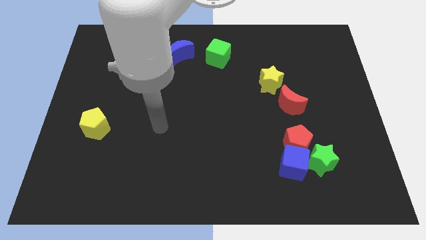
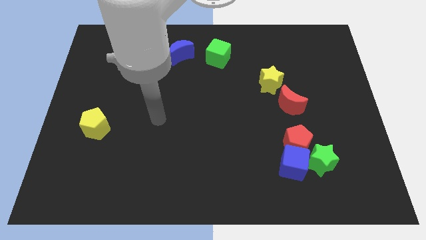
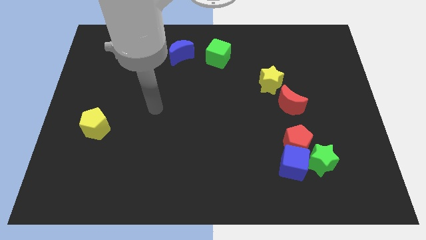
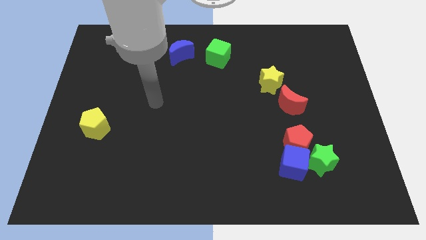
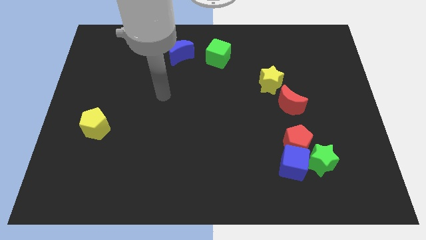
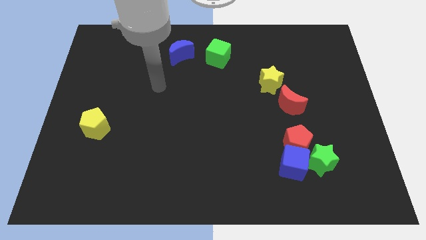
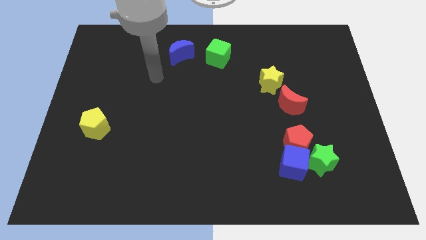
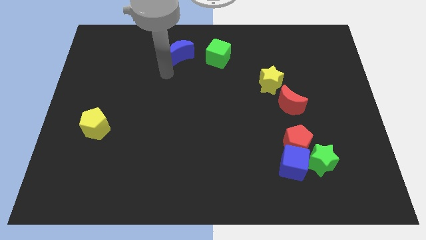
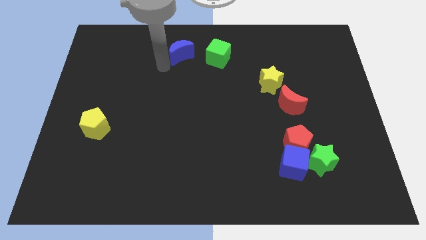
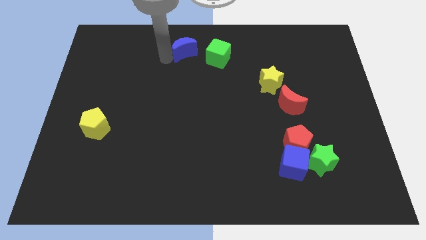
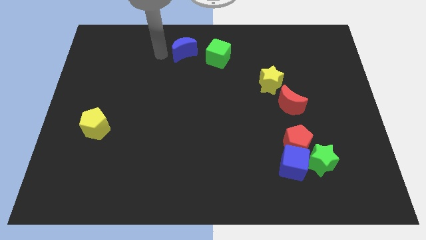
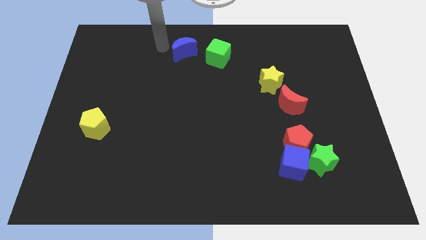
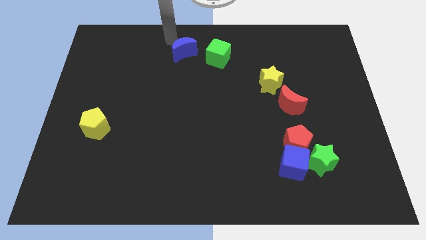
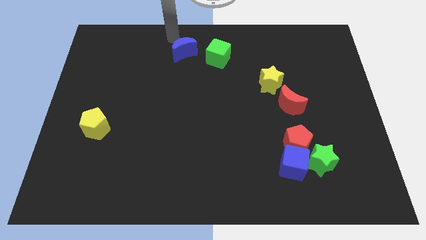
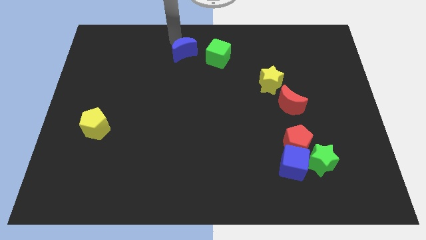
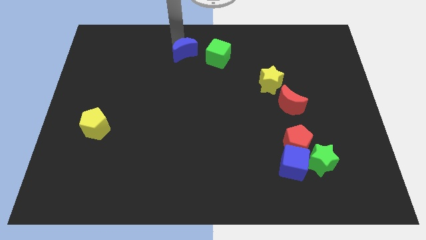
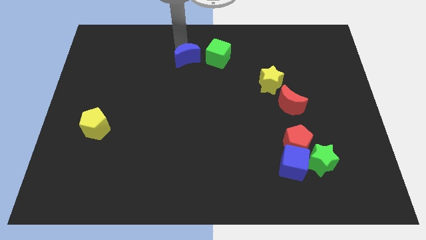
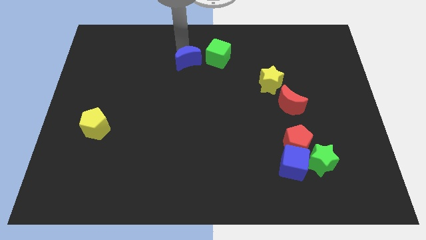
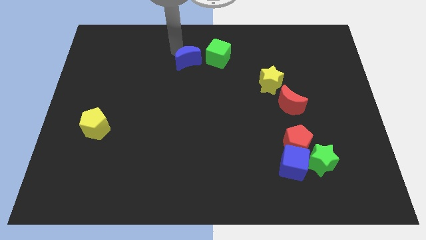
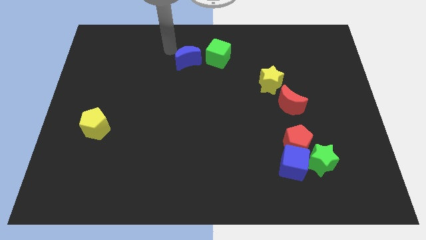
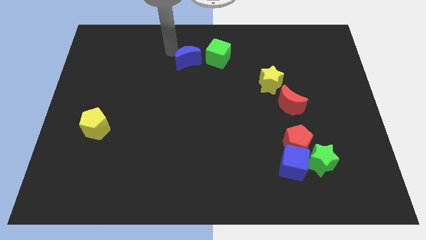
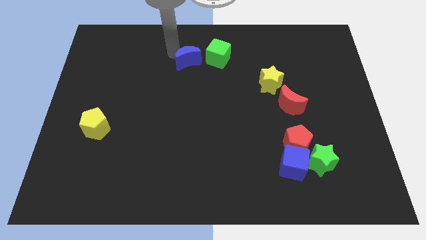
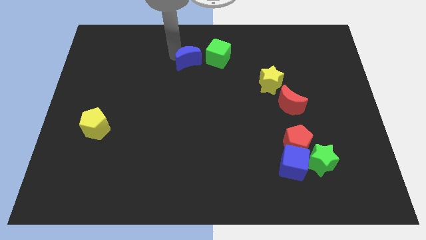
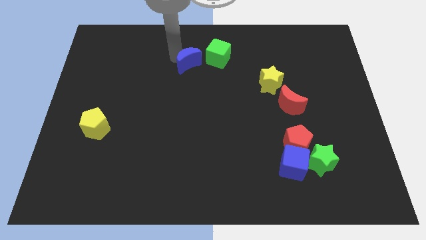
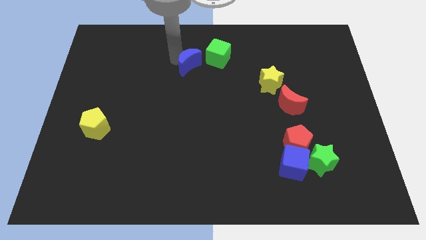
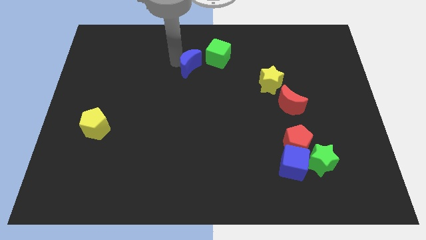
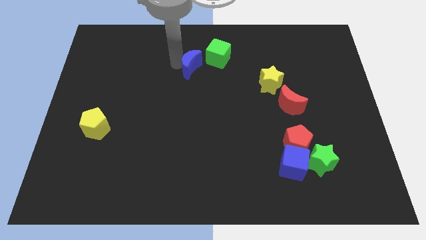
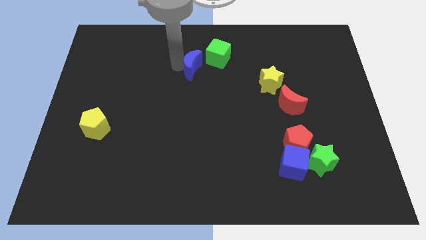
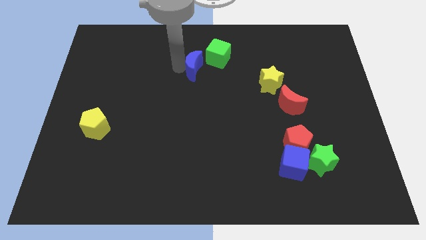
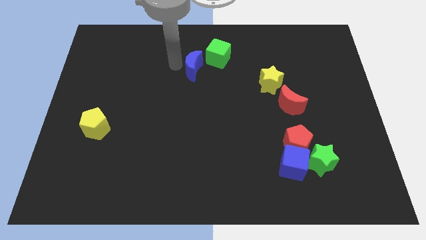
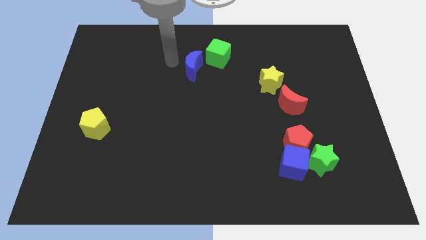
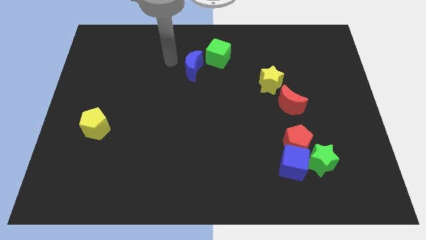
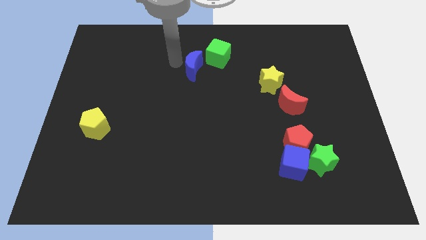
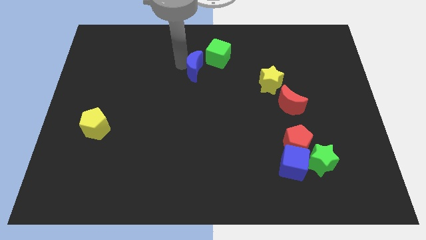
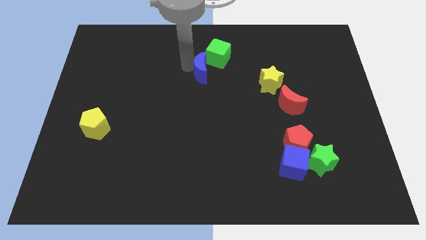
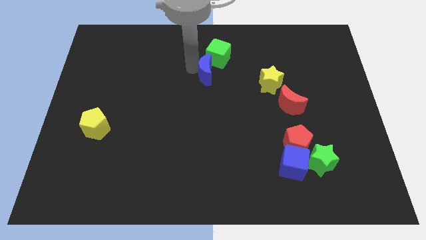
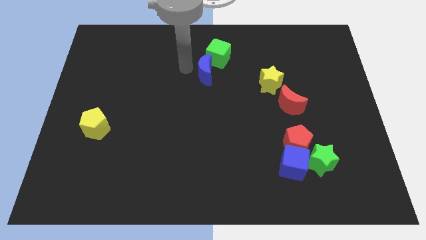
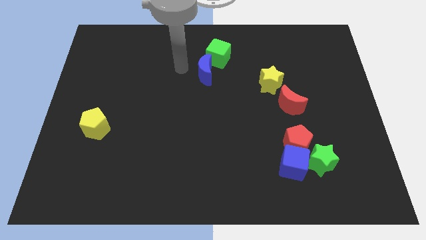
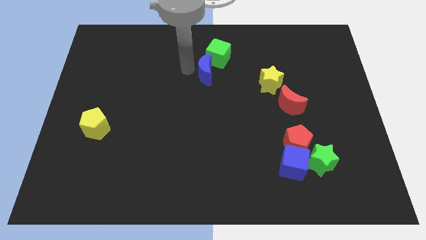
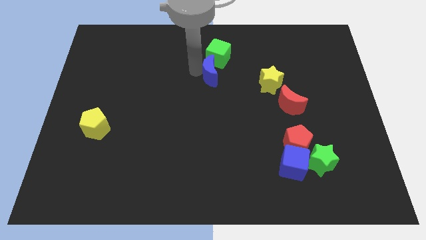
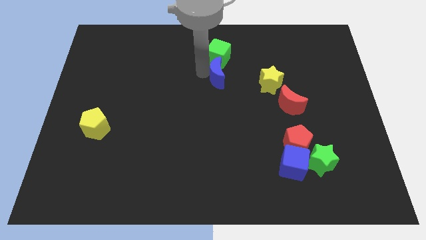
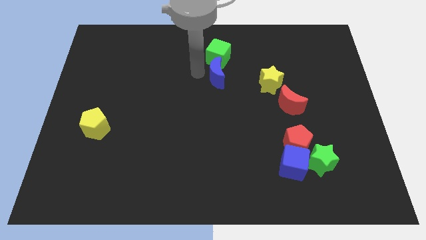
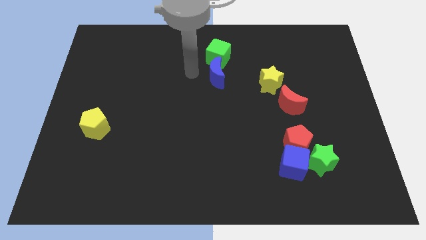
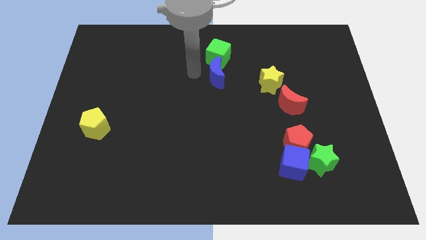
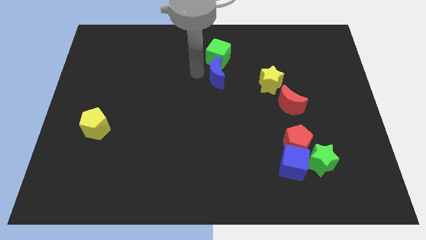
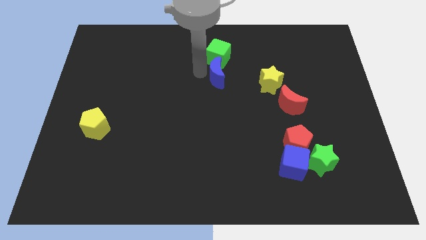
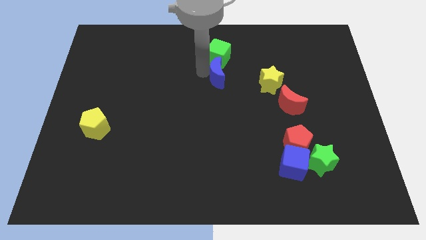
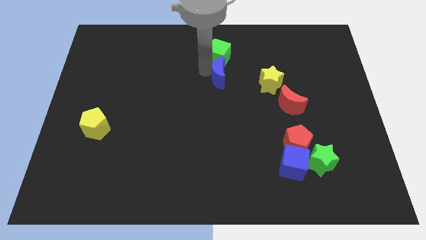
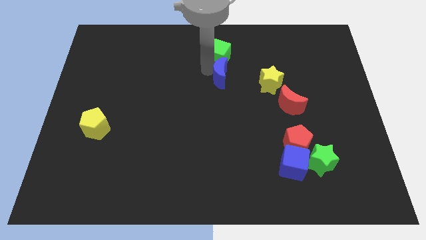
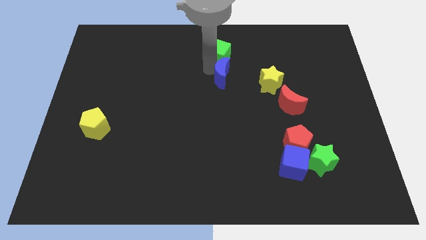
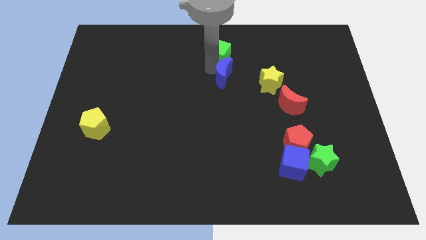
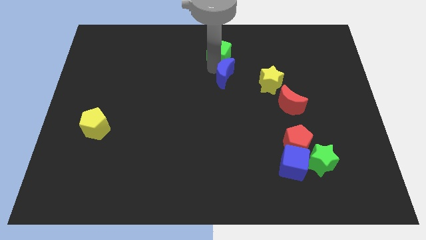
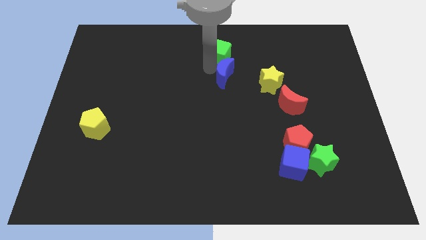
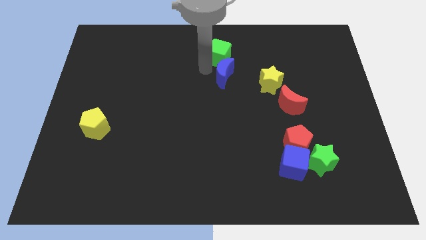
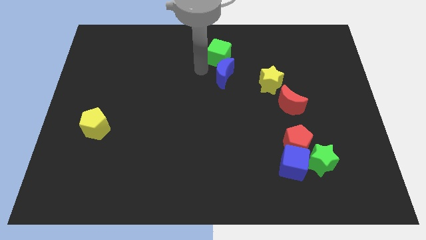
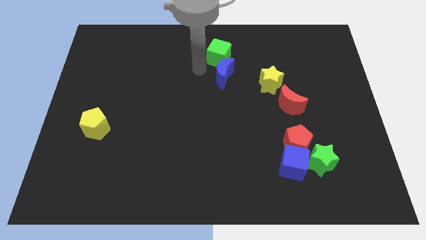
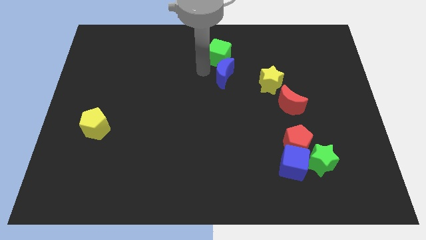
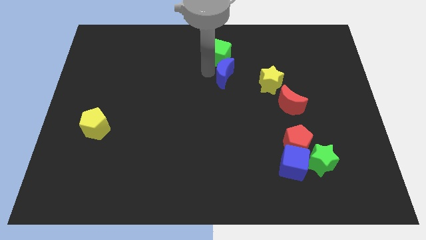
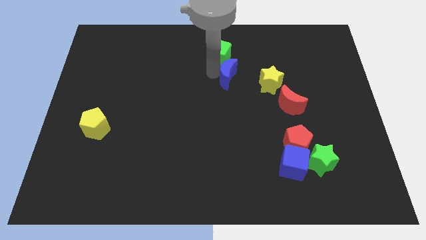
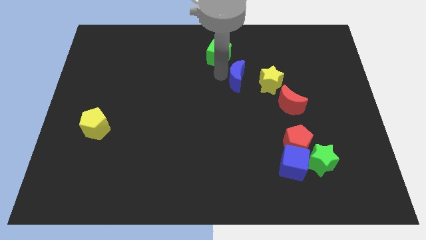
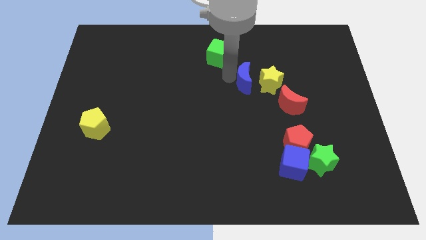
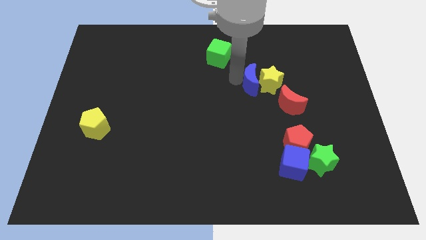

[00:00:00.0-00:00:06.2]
push the blue moon close to the yellow star
